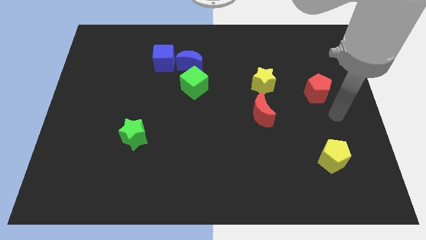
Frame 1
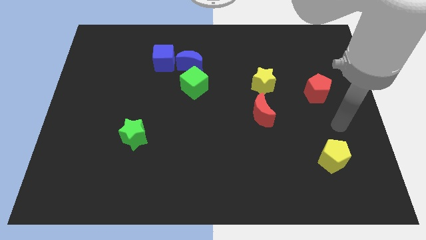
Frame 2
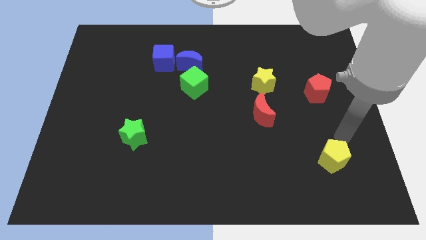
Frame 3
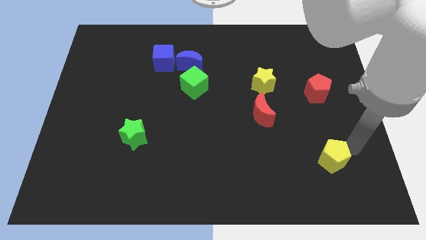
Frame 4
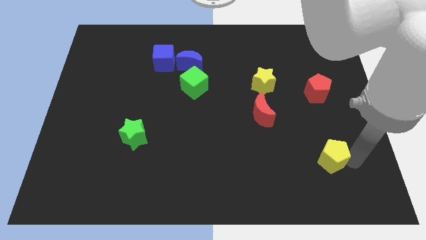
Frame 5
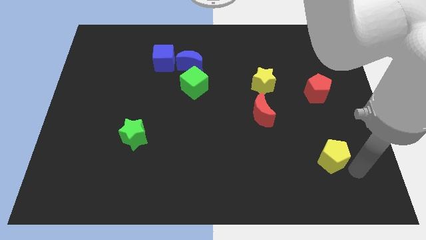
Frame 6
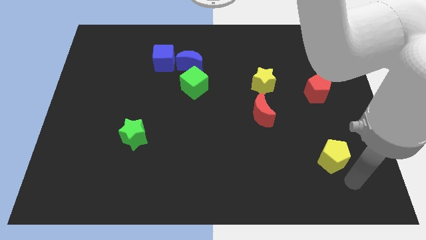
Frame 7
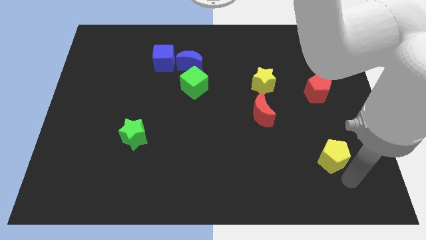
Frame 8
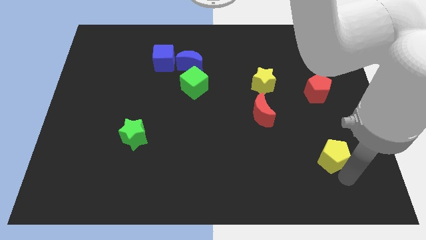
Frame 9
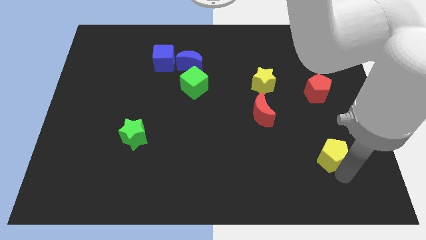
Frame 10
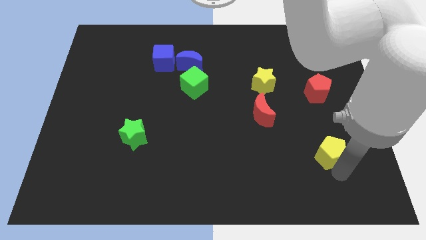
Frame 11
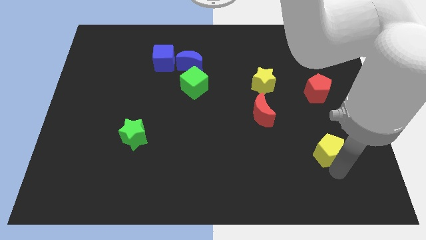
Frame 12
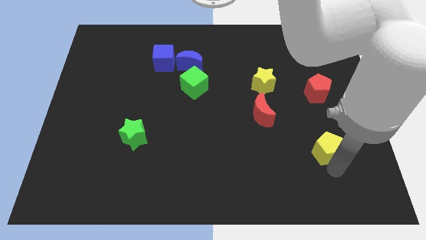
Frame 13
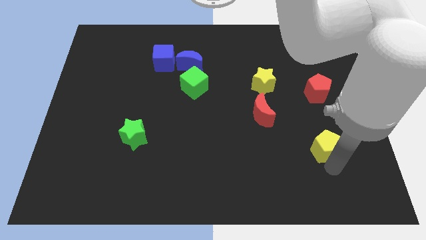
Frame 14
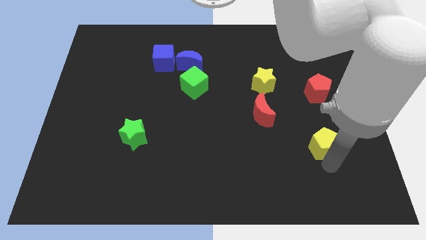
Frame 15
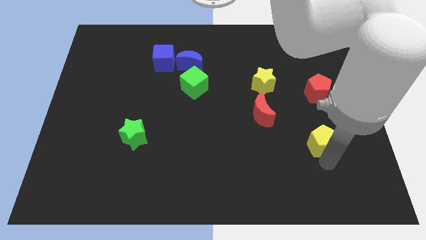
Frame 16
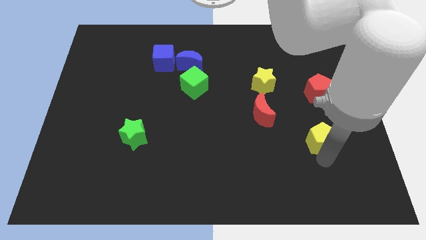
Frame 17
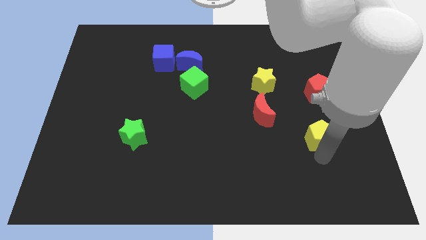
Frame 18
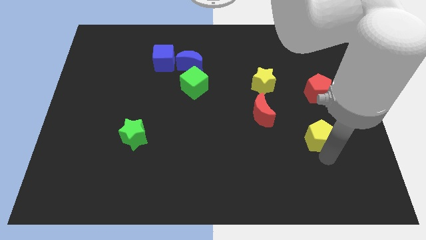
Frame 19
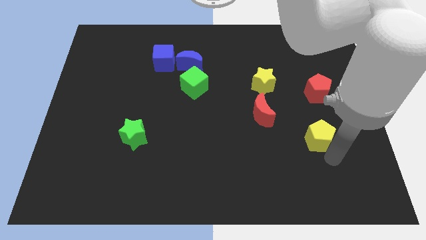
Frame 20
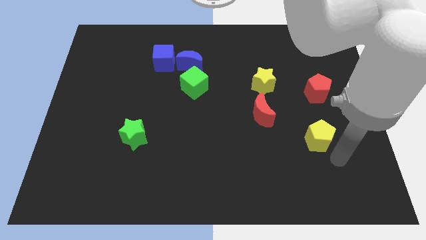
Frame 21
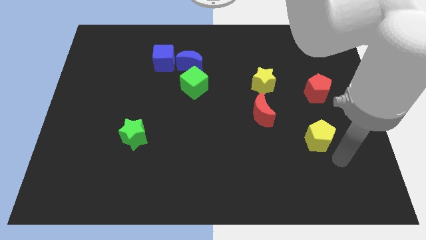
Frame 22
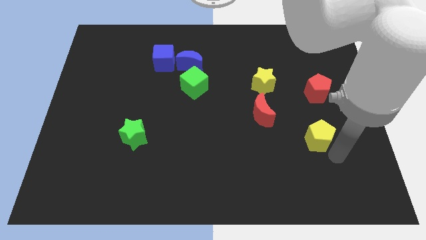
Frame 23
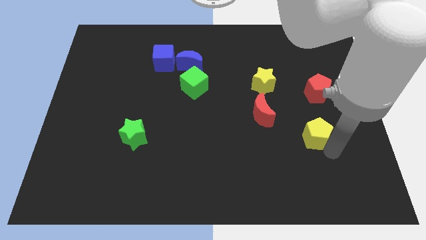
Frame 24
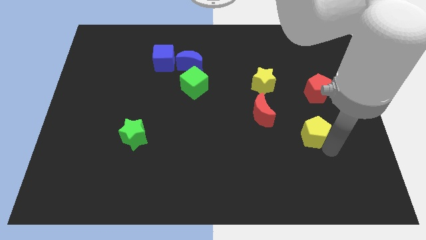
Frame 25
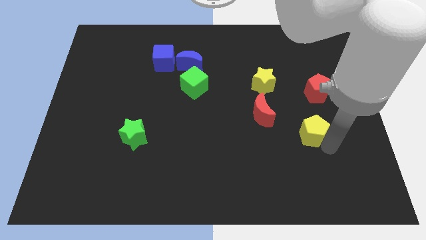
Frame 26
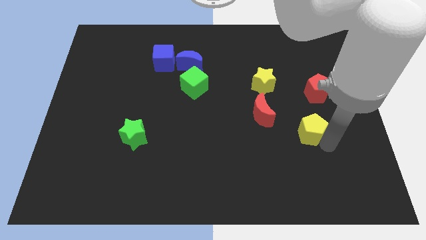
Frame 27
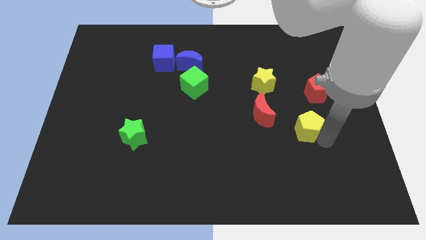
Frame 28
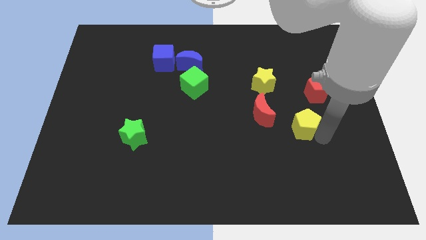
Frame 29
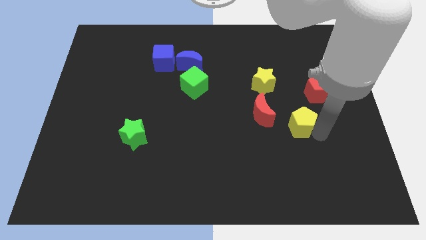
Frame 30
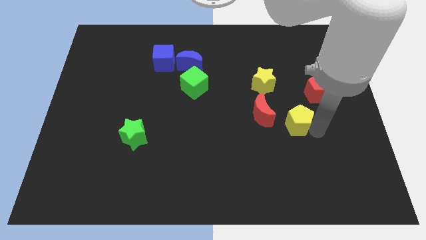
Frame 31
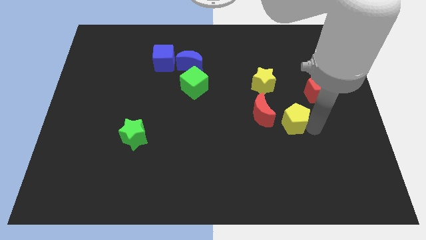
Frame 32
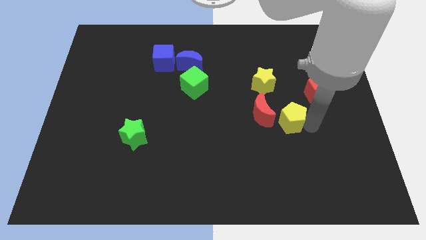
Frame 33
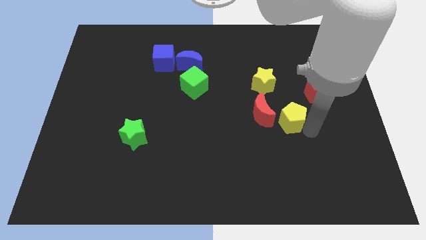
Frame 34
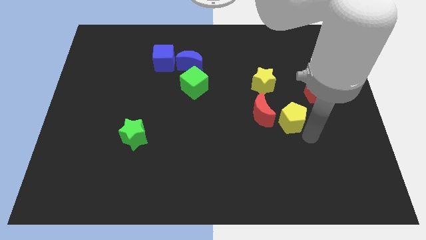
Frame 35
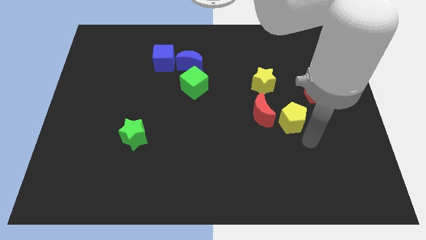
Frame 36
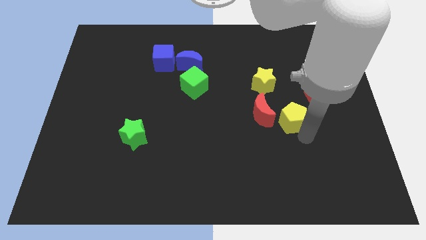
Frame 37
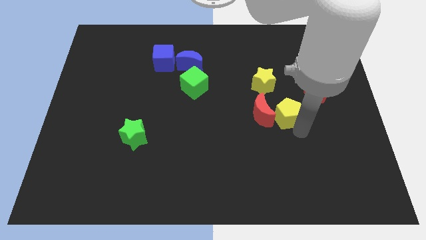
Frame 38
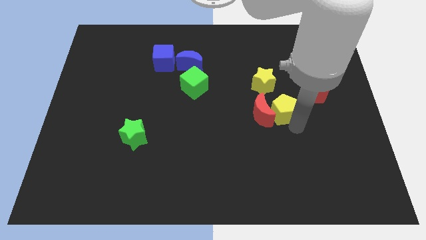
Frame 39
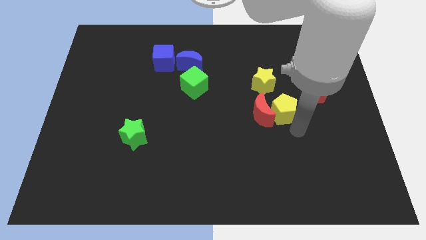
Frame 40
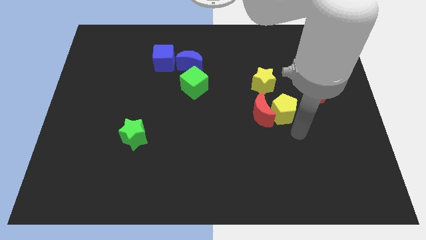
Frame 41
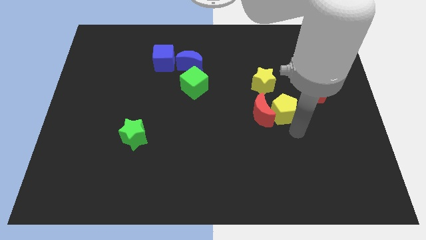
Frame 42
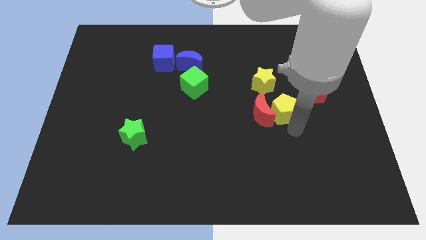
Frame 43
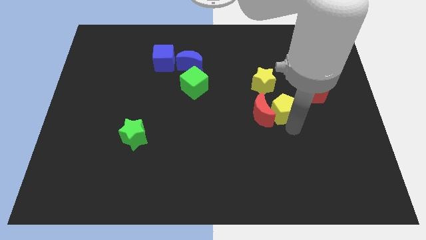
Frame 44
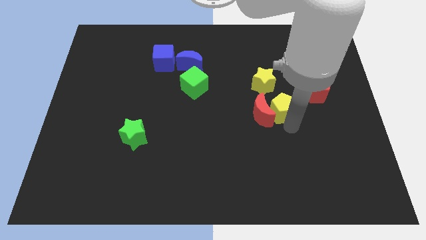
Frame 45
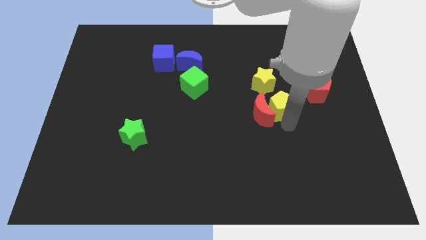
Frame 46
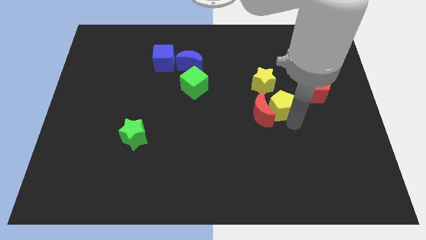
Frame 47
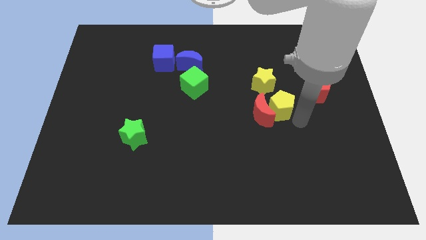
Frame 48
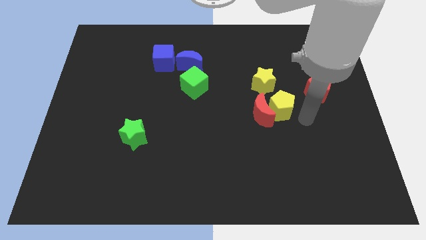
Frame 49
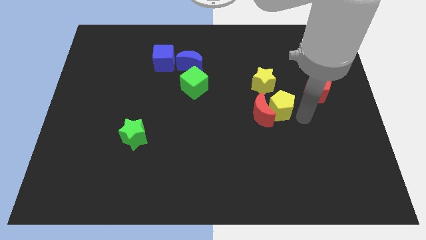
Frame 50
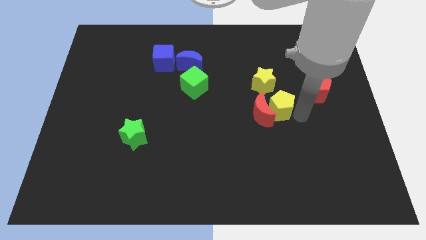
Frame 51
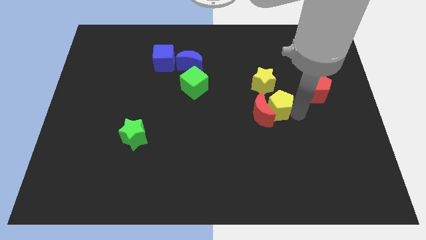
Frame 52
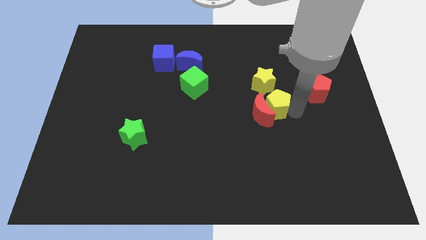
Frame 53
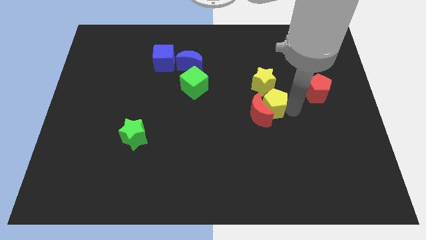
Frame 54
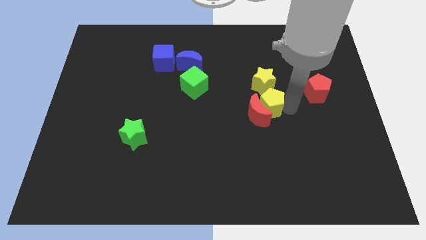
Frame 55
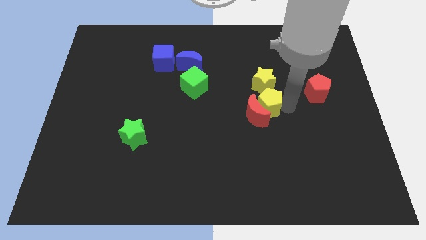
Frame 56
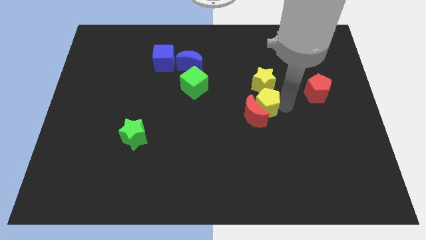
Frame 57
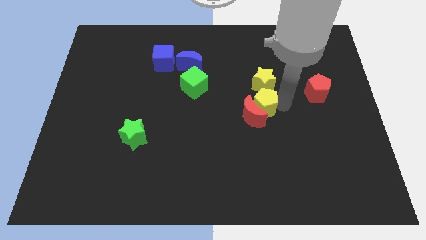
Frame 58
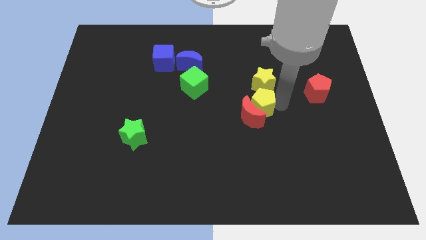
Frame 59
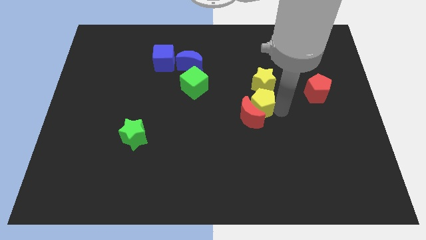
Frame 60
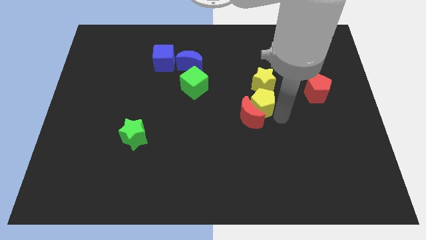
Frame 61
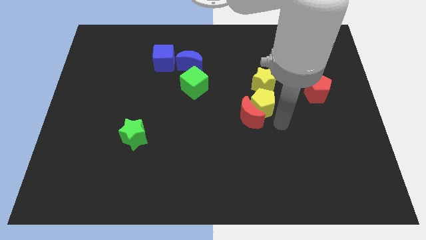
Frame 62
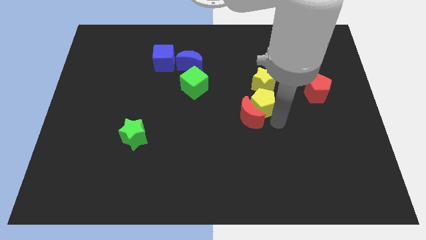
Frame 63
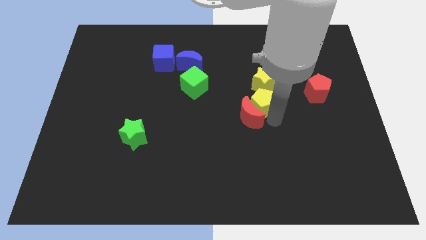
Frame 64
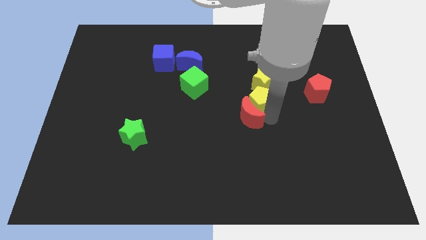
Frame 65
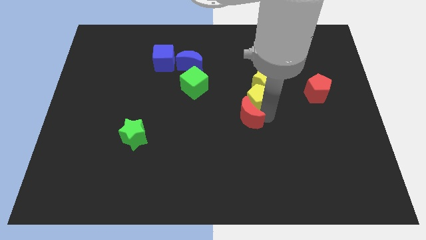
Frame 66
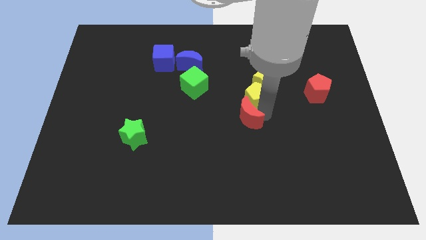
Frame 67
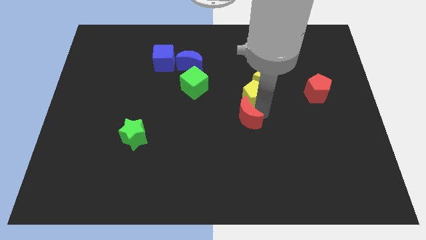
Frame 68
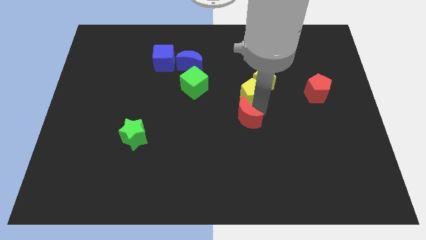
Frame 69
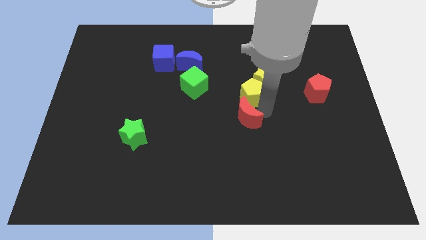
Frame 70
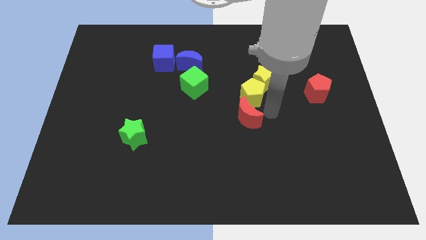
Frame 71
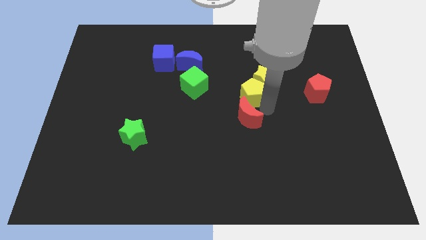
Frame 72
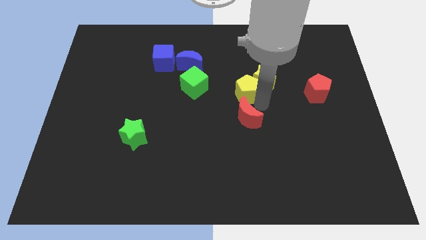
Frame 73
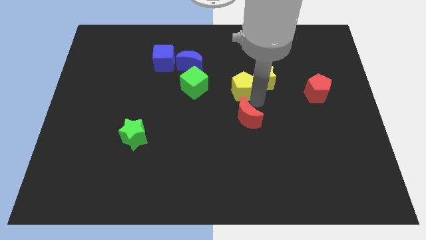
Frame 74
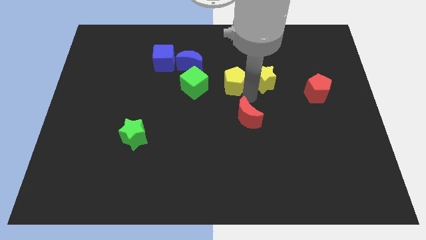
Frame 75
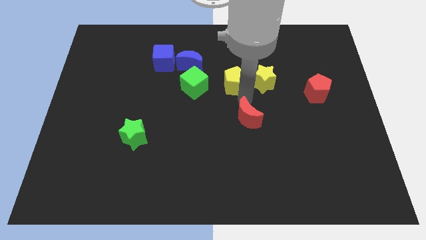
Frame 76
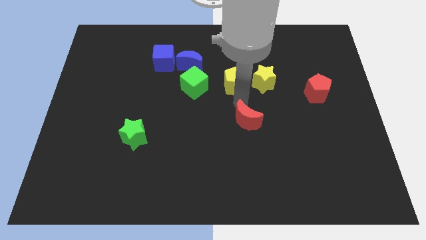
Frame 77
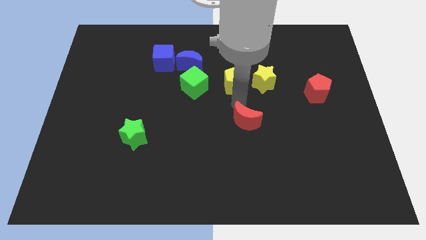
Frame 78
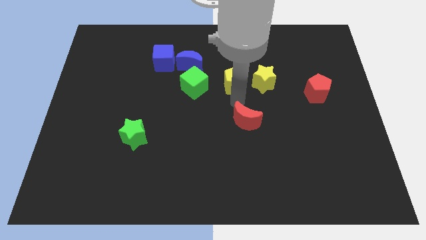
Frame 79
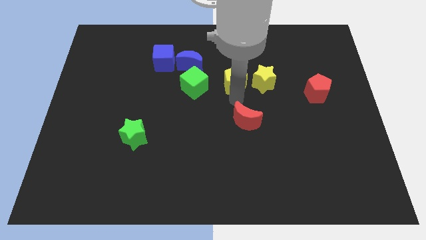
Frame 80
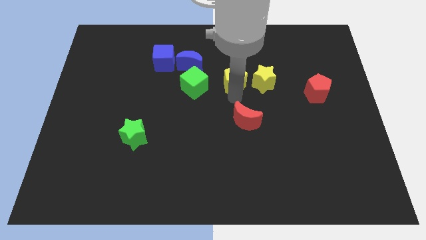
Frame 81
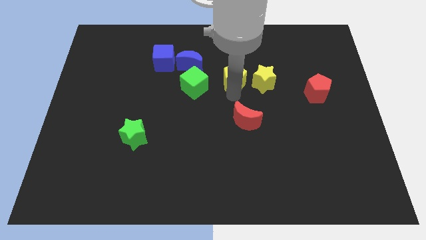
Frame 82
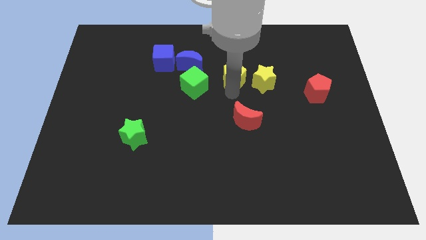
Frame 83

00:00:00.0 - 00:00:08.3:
move the yellow pentagon just right of the blue moon
